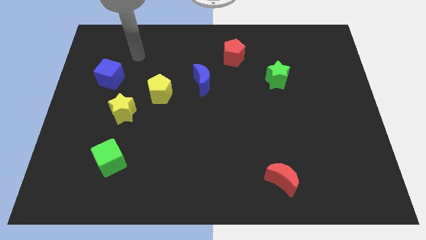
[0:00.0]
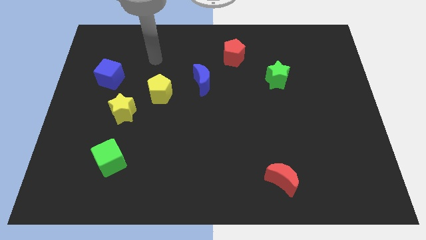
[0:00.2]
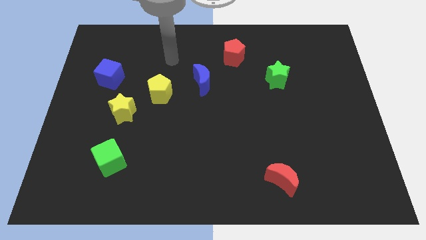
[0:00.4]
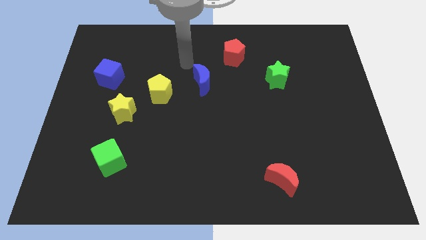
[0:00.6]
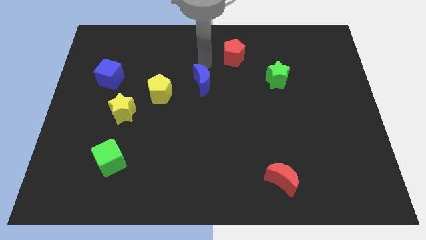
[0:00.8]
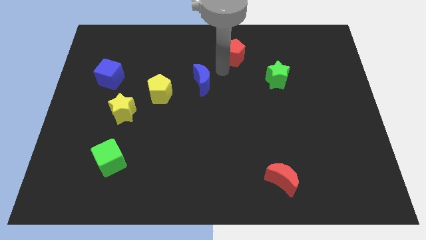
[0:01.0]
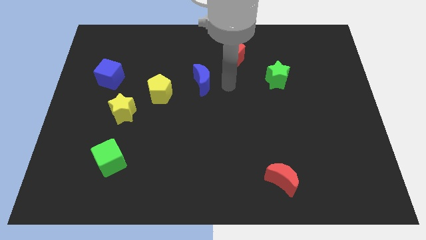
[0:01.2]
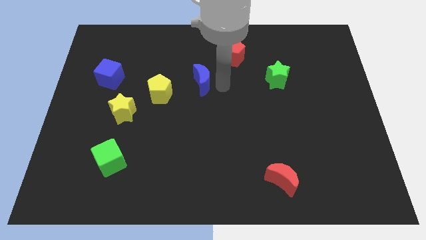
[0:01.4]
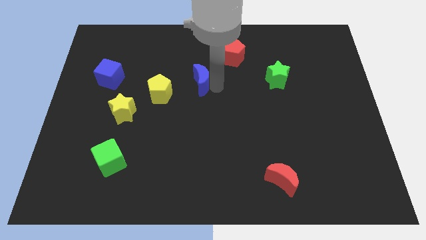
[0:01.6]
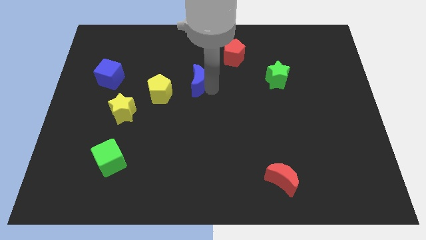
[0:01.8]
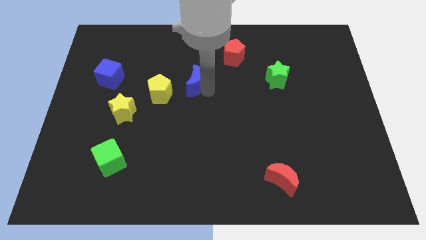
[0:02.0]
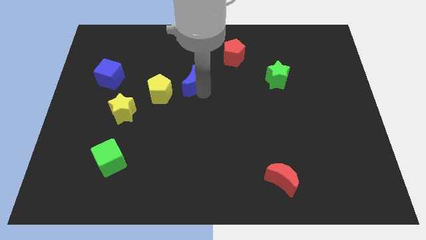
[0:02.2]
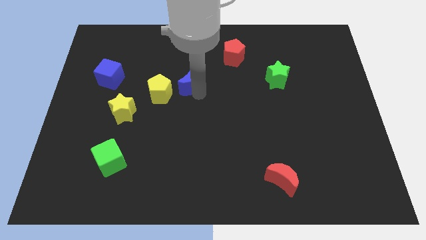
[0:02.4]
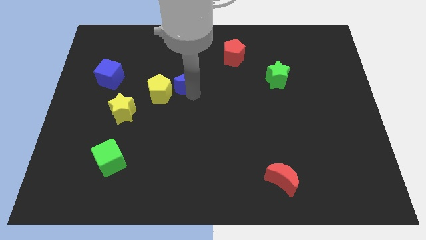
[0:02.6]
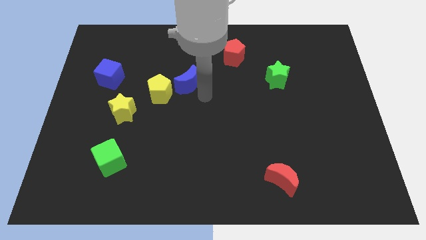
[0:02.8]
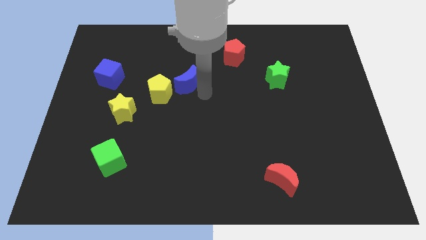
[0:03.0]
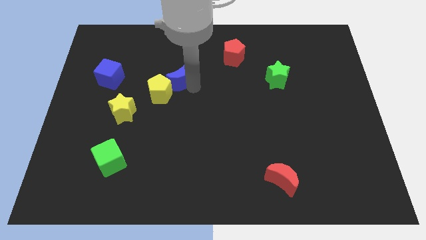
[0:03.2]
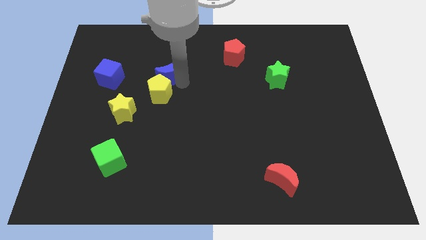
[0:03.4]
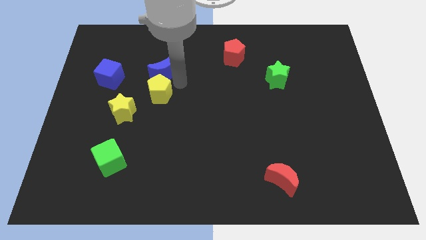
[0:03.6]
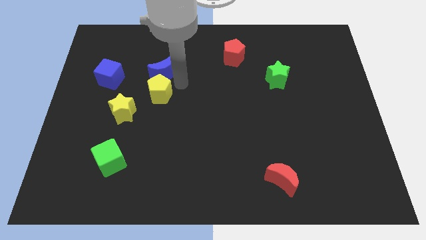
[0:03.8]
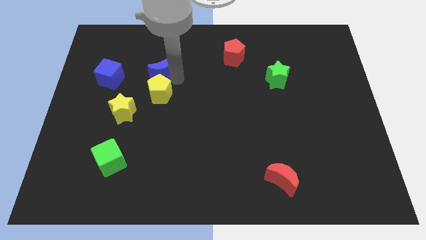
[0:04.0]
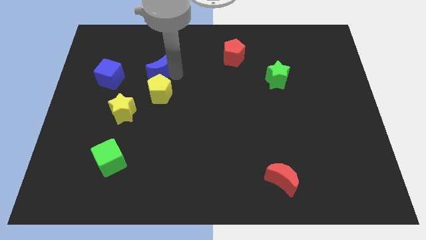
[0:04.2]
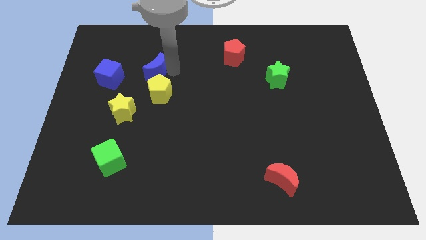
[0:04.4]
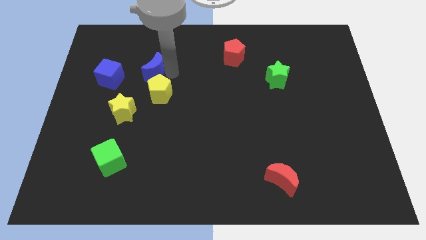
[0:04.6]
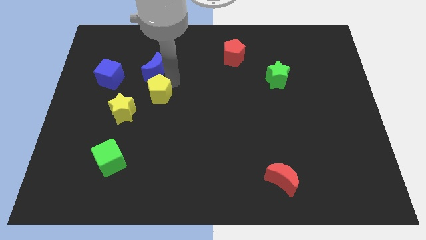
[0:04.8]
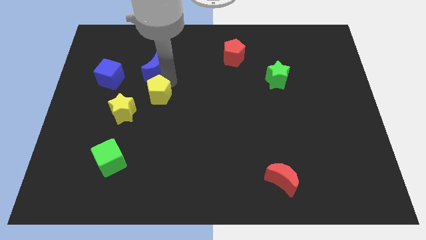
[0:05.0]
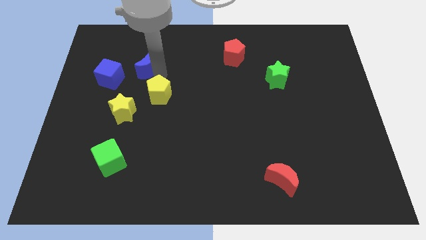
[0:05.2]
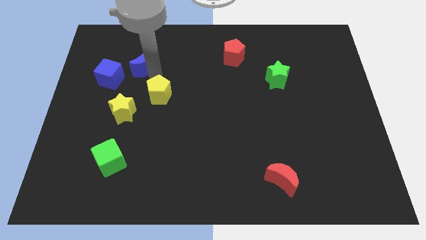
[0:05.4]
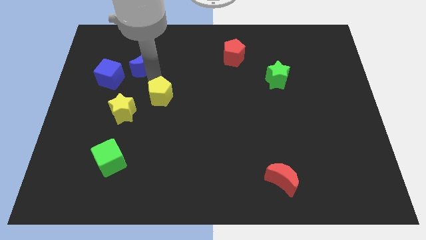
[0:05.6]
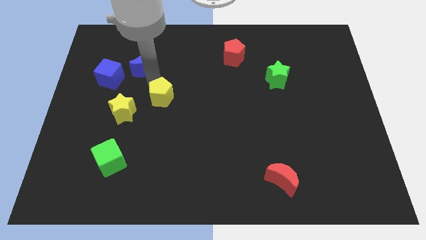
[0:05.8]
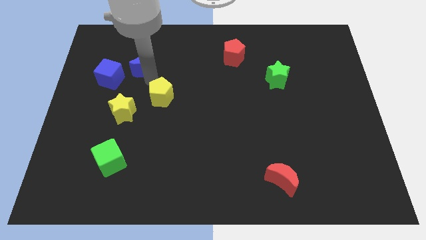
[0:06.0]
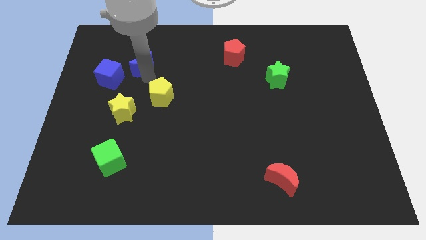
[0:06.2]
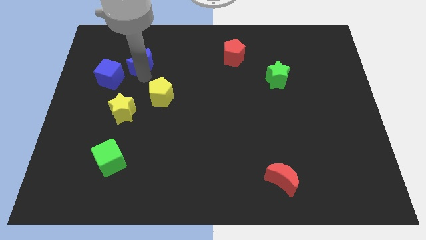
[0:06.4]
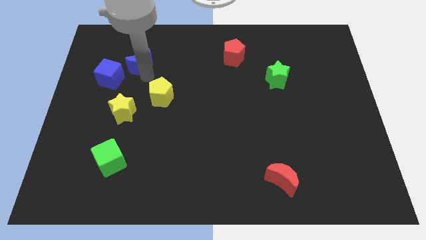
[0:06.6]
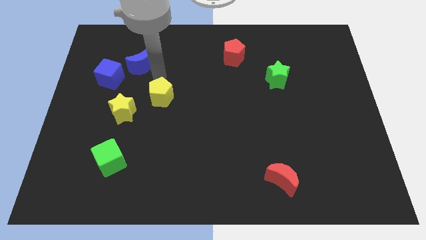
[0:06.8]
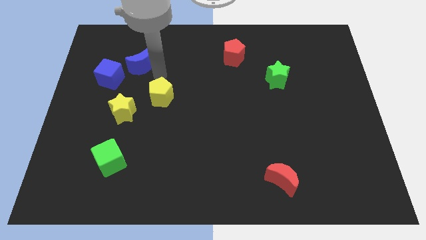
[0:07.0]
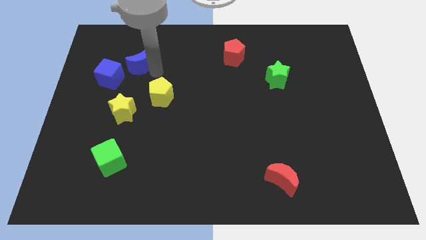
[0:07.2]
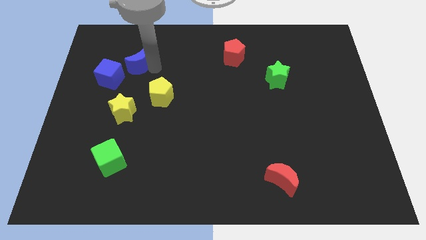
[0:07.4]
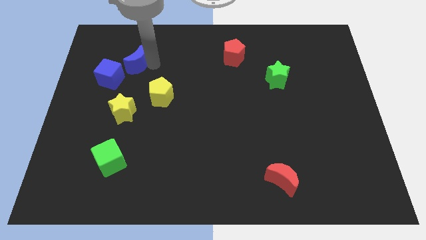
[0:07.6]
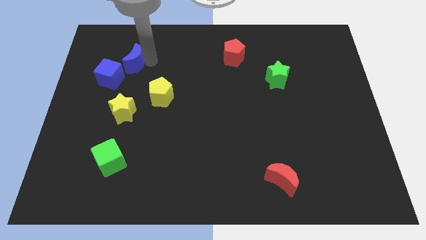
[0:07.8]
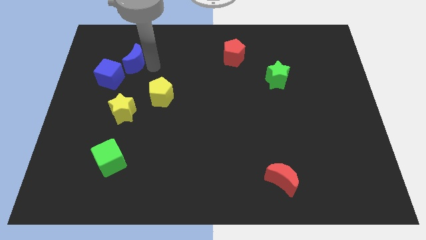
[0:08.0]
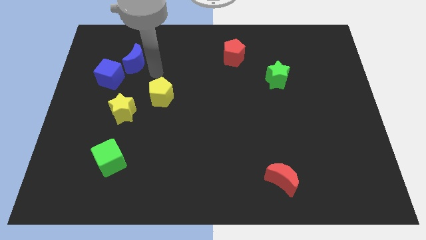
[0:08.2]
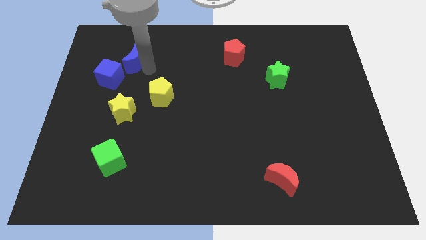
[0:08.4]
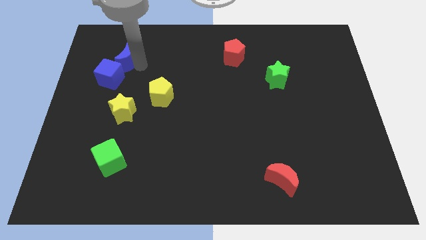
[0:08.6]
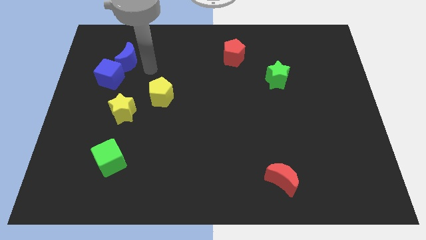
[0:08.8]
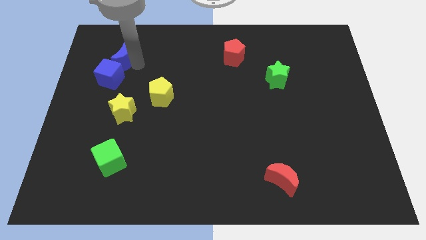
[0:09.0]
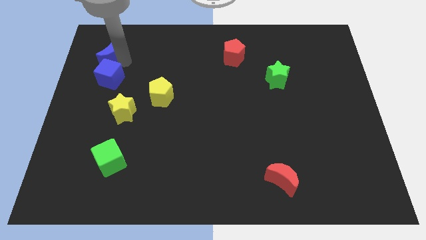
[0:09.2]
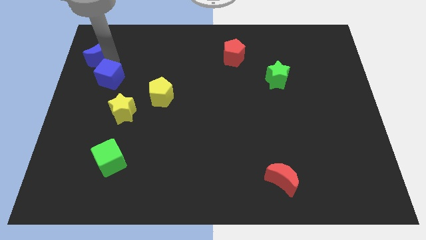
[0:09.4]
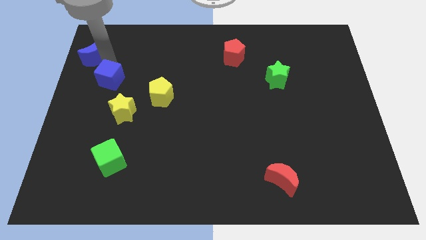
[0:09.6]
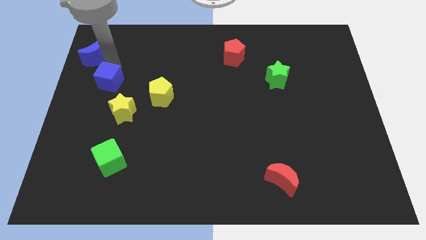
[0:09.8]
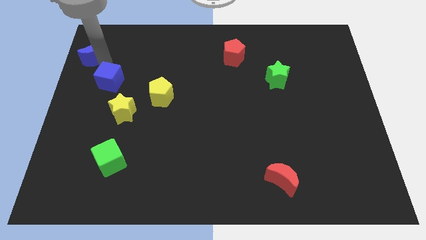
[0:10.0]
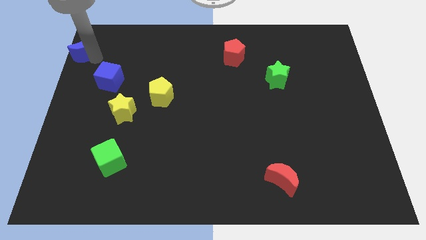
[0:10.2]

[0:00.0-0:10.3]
slide the blue moon to the top left corner
